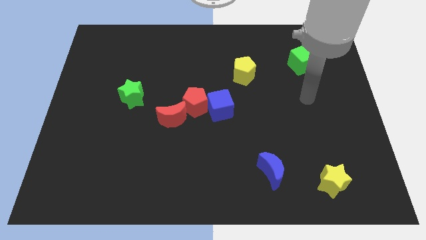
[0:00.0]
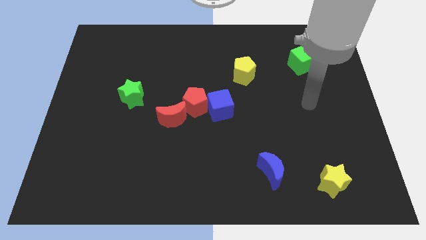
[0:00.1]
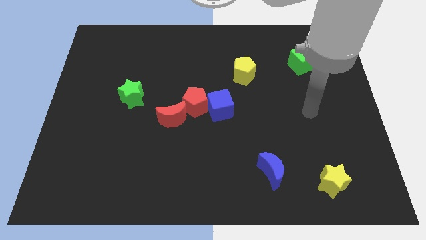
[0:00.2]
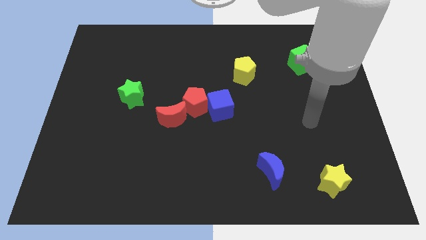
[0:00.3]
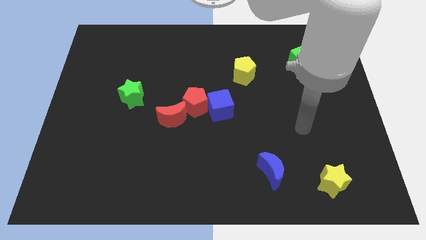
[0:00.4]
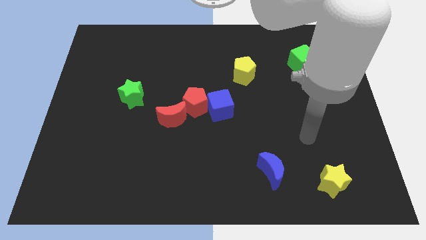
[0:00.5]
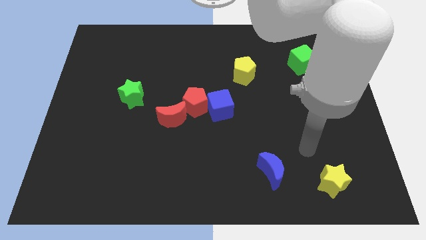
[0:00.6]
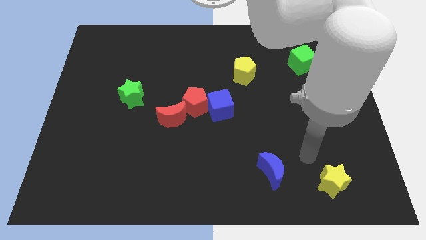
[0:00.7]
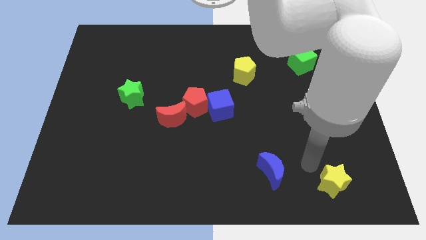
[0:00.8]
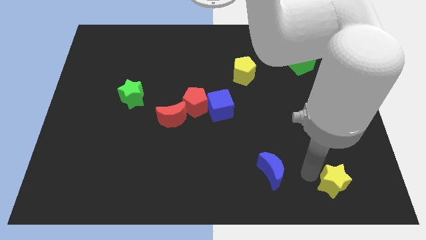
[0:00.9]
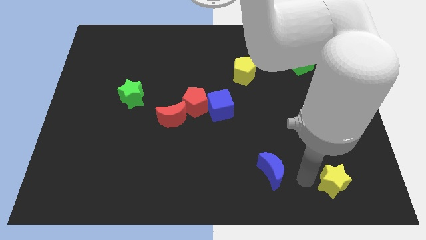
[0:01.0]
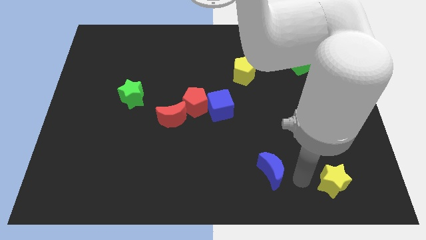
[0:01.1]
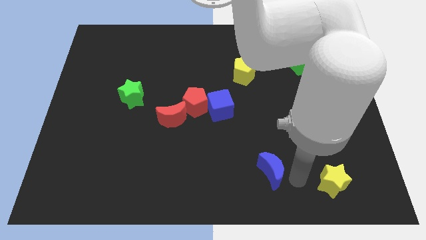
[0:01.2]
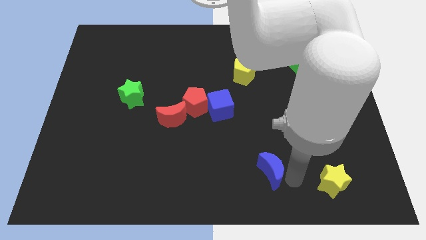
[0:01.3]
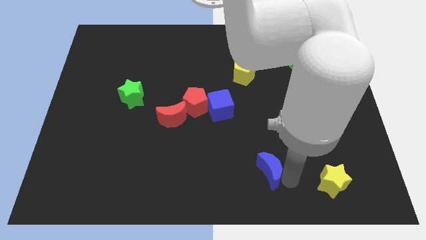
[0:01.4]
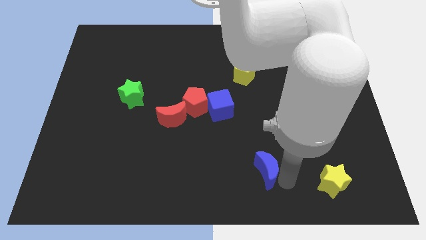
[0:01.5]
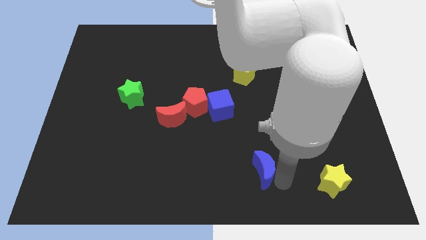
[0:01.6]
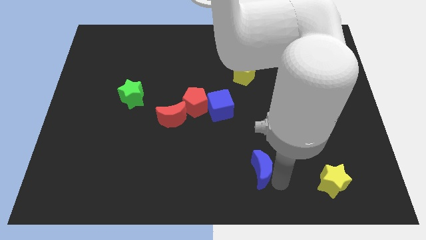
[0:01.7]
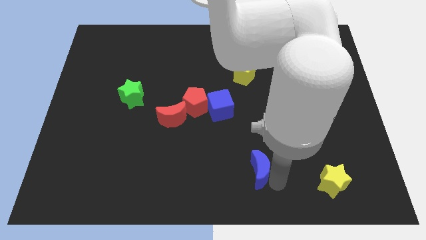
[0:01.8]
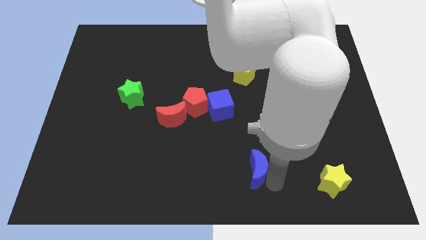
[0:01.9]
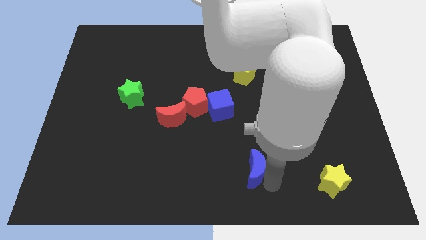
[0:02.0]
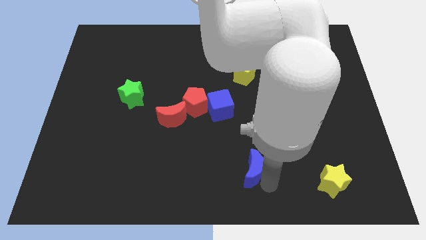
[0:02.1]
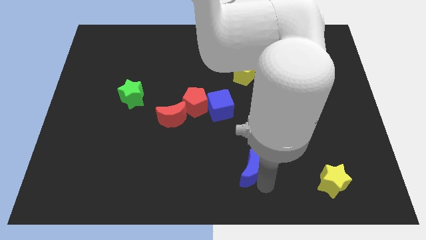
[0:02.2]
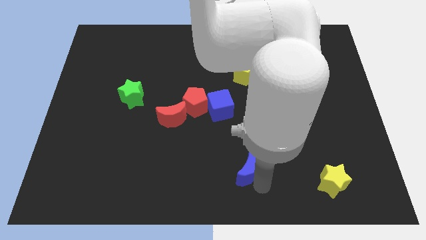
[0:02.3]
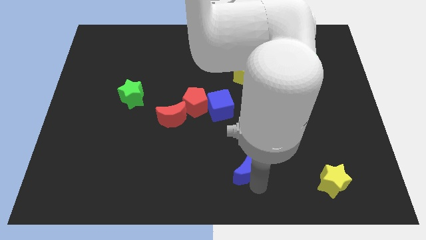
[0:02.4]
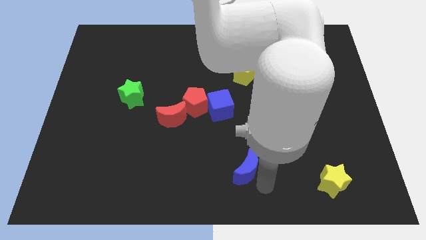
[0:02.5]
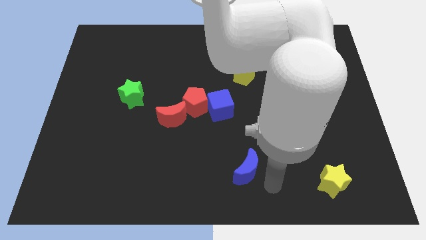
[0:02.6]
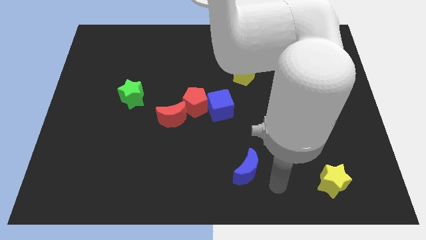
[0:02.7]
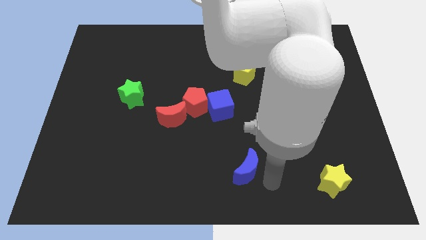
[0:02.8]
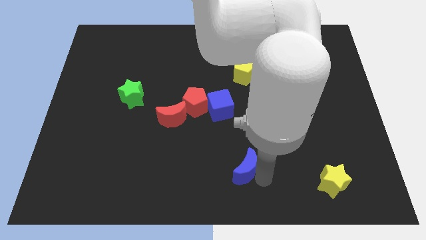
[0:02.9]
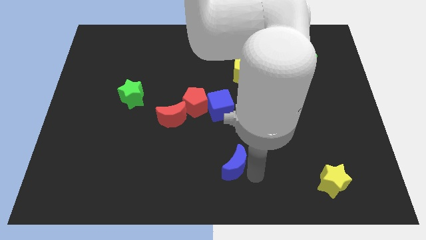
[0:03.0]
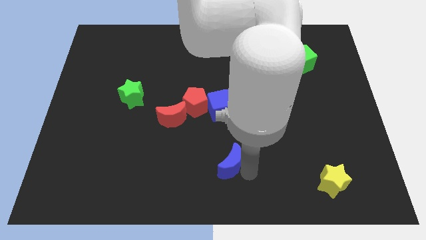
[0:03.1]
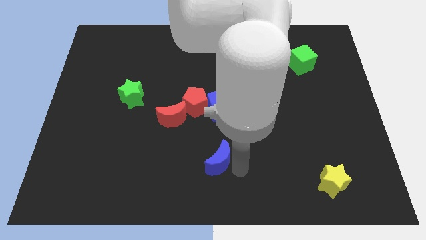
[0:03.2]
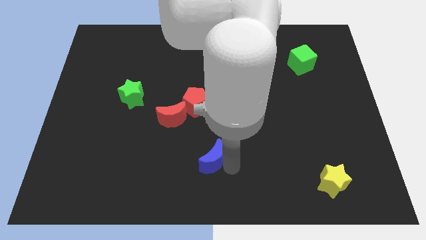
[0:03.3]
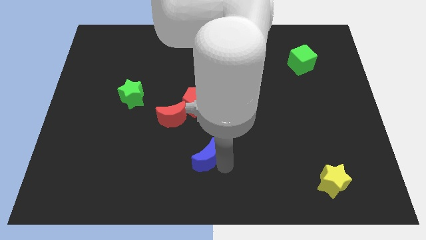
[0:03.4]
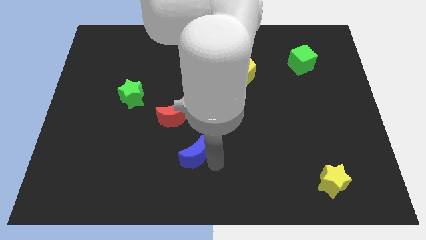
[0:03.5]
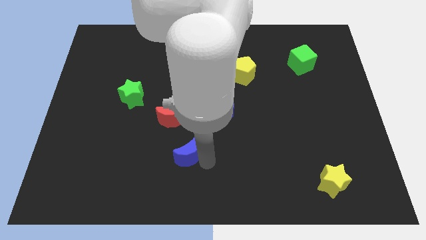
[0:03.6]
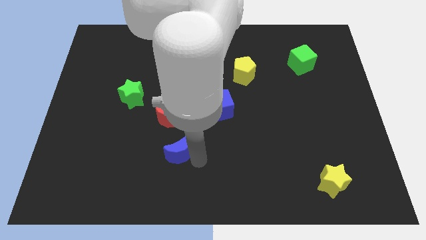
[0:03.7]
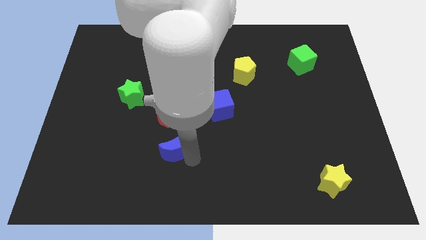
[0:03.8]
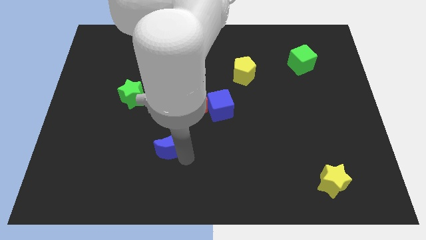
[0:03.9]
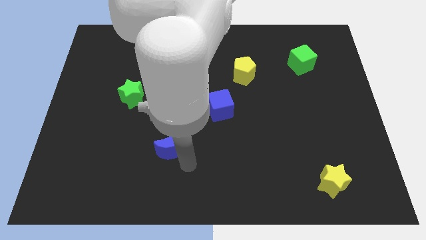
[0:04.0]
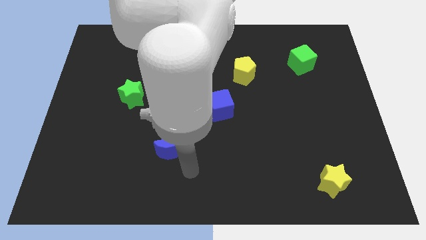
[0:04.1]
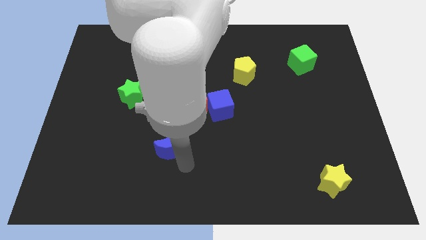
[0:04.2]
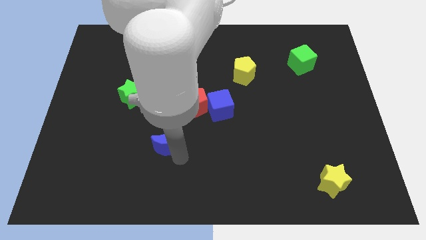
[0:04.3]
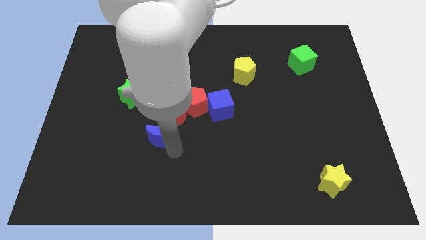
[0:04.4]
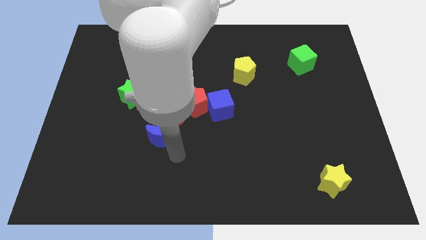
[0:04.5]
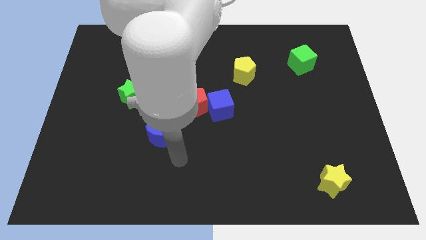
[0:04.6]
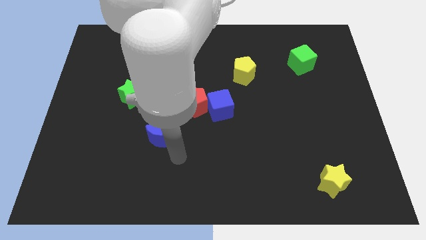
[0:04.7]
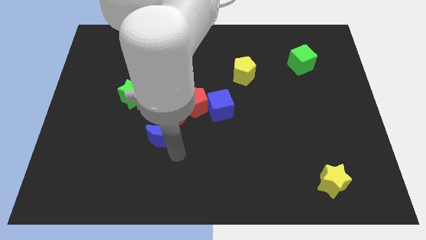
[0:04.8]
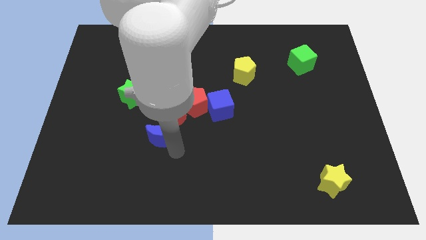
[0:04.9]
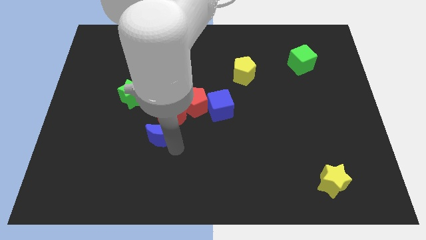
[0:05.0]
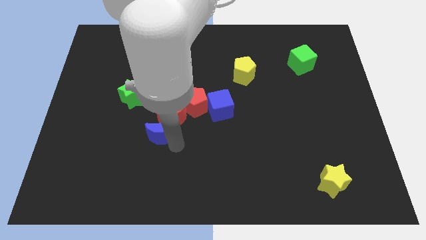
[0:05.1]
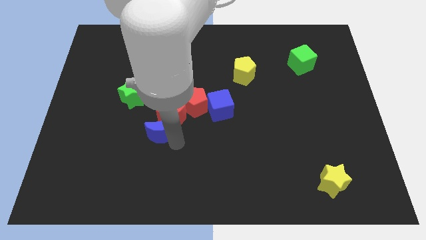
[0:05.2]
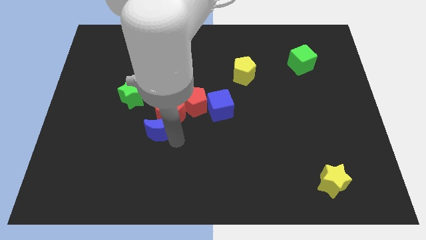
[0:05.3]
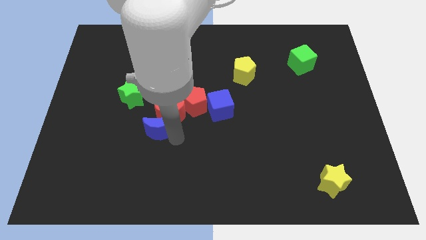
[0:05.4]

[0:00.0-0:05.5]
push the blue moon upwards and to the left diagonally

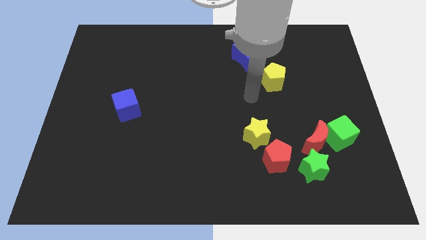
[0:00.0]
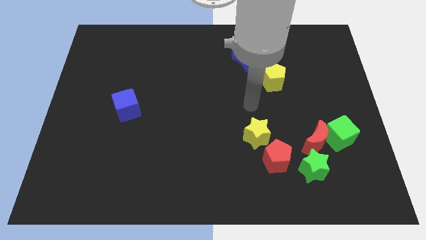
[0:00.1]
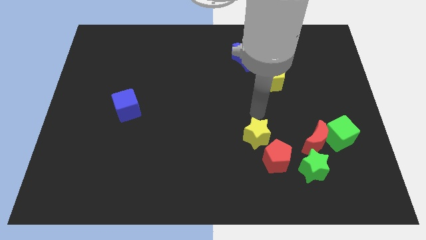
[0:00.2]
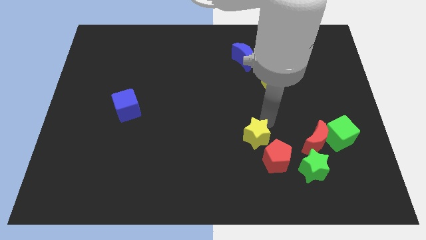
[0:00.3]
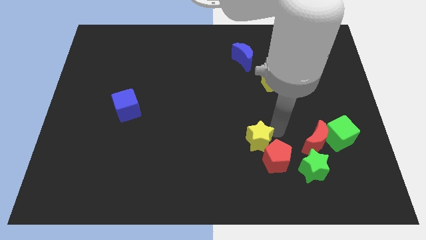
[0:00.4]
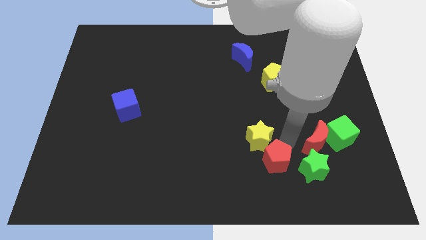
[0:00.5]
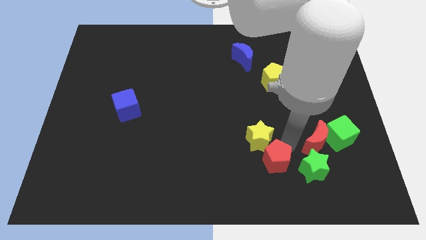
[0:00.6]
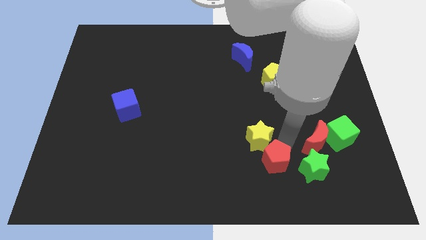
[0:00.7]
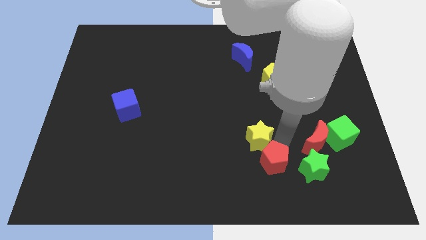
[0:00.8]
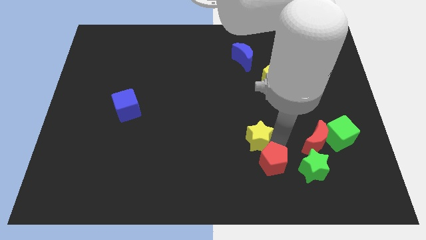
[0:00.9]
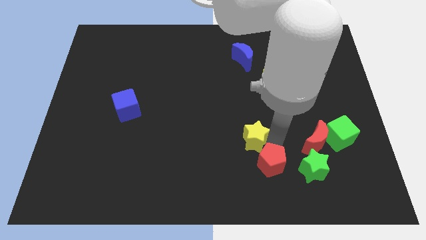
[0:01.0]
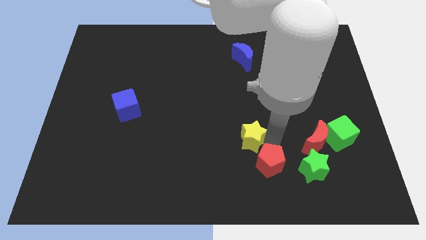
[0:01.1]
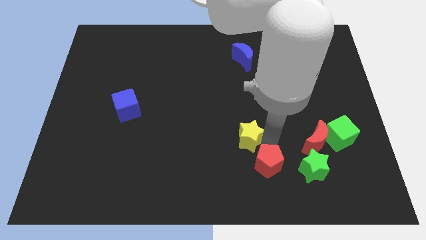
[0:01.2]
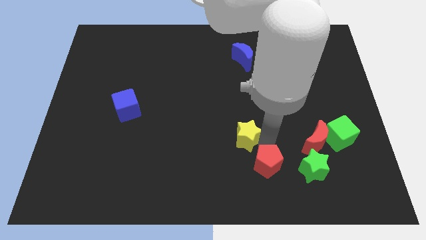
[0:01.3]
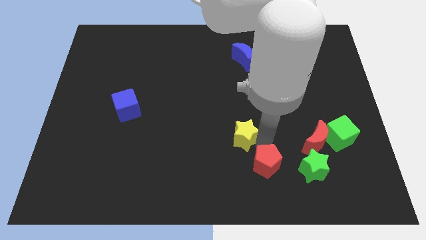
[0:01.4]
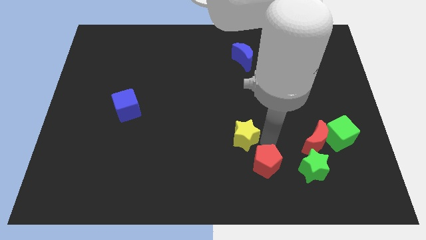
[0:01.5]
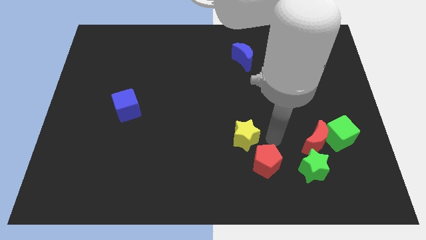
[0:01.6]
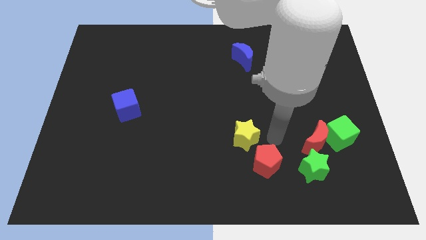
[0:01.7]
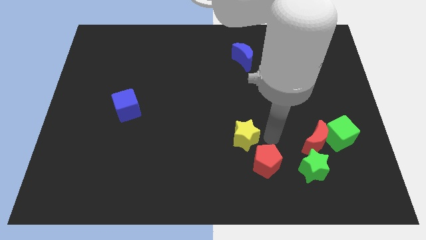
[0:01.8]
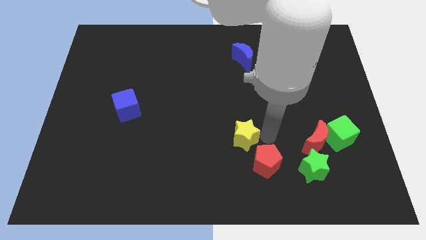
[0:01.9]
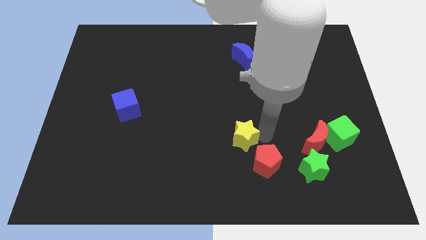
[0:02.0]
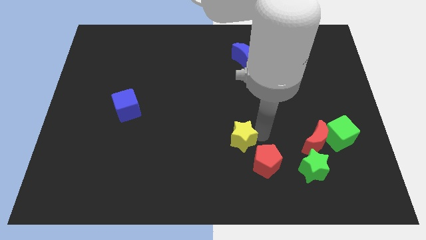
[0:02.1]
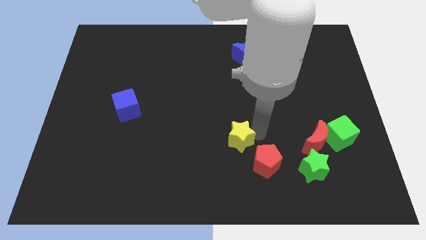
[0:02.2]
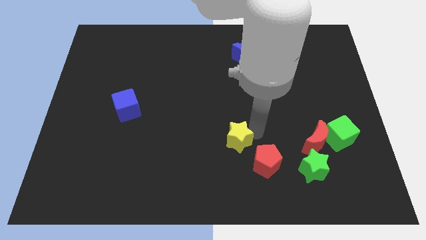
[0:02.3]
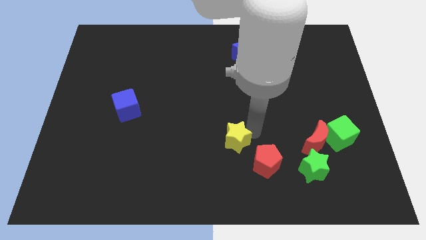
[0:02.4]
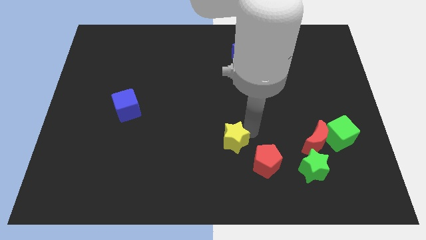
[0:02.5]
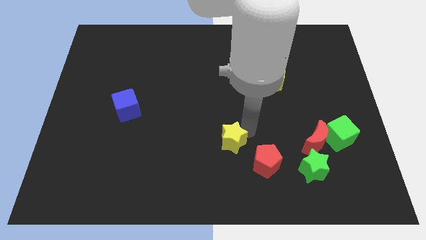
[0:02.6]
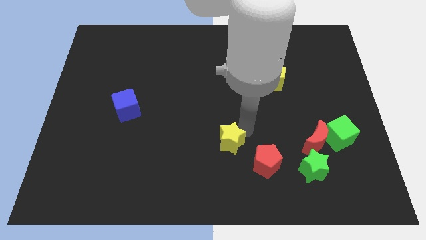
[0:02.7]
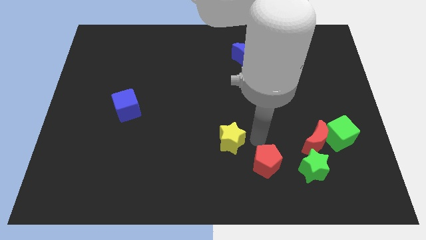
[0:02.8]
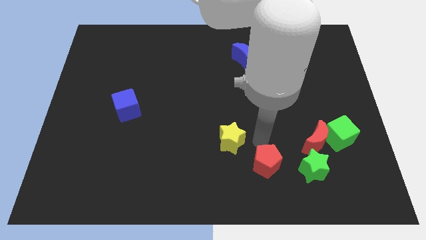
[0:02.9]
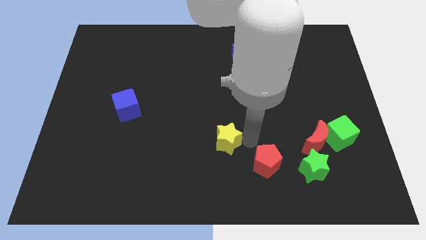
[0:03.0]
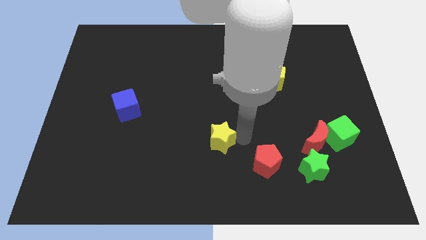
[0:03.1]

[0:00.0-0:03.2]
move the yellow star to the left a little bit
